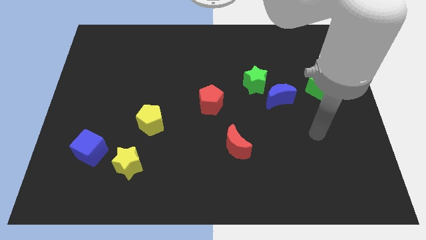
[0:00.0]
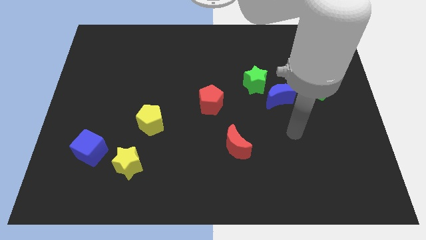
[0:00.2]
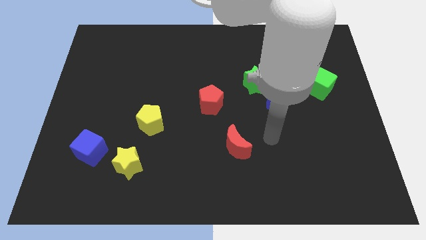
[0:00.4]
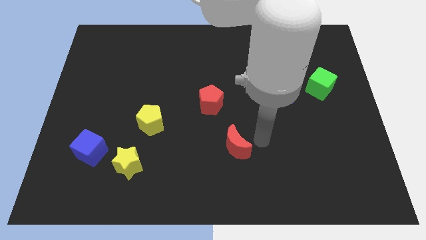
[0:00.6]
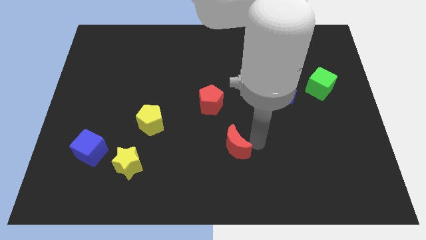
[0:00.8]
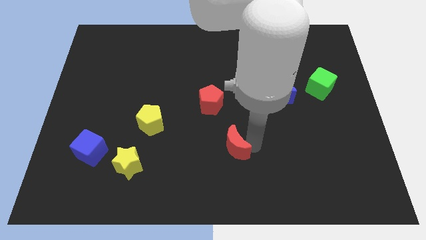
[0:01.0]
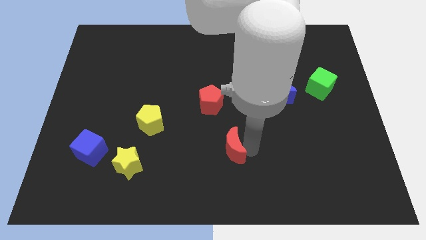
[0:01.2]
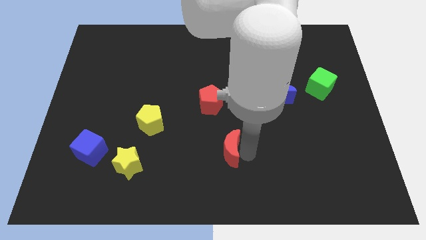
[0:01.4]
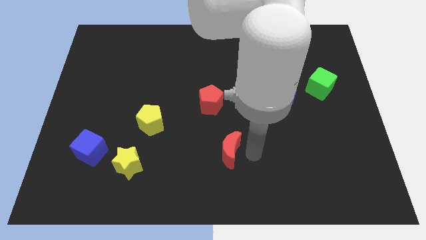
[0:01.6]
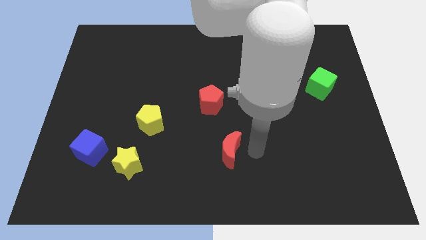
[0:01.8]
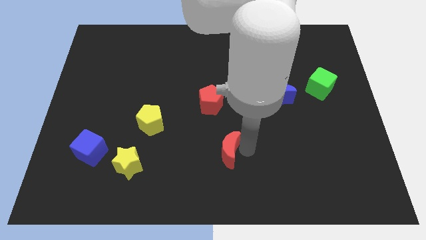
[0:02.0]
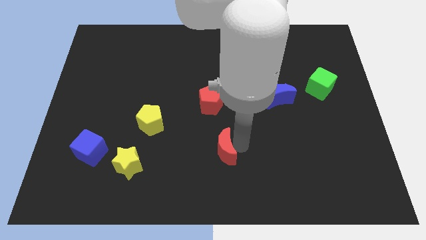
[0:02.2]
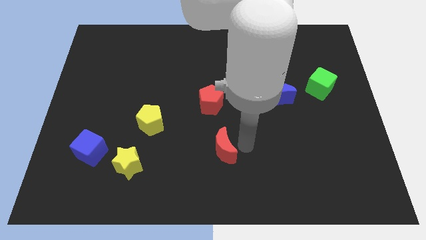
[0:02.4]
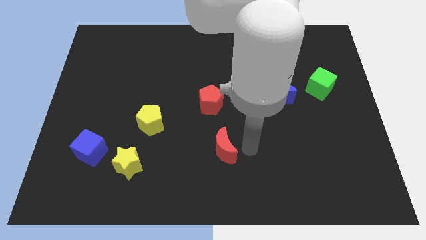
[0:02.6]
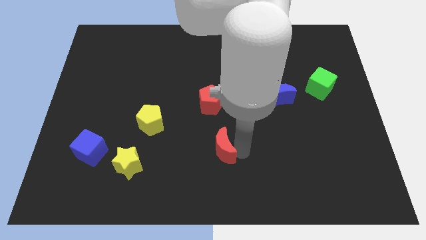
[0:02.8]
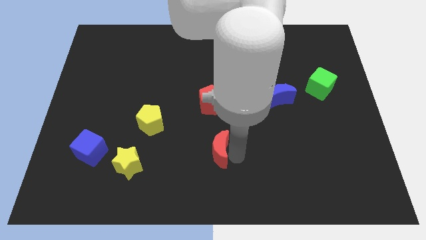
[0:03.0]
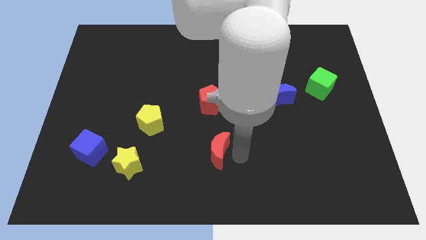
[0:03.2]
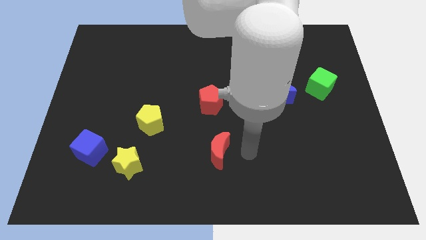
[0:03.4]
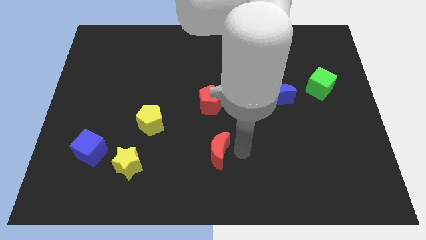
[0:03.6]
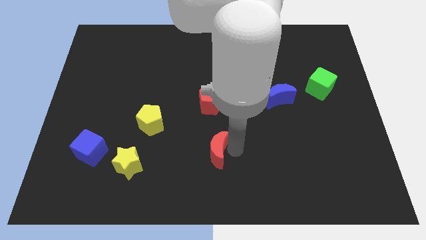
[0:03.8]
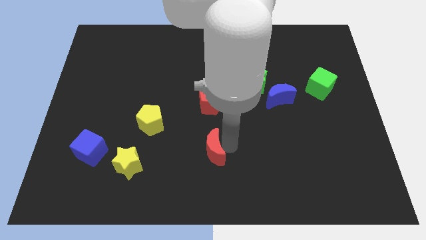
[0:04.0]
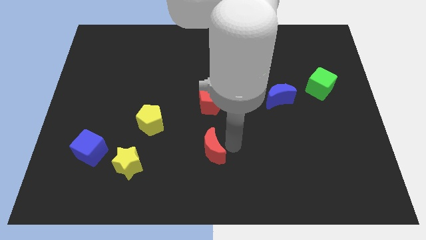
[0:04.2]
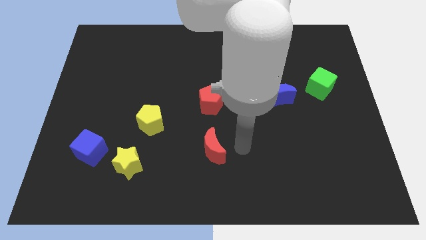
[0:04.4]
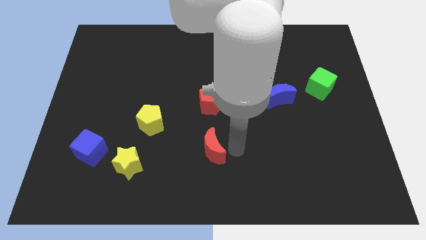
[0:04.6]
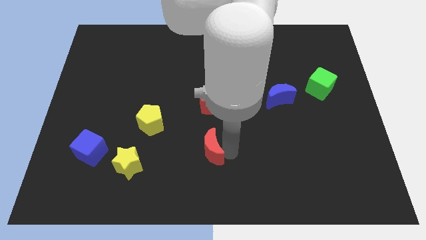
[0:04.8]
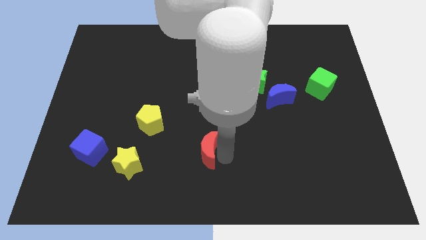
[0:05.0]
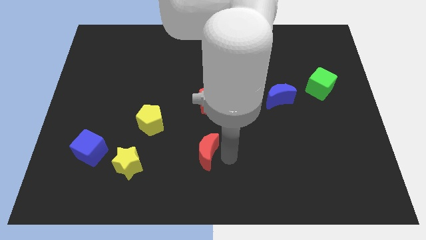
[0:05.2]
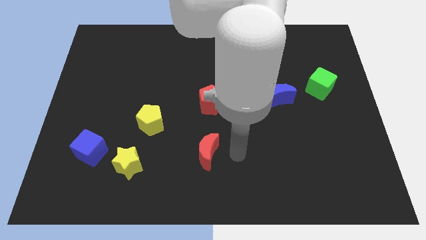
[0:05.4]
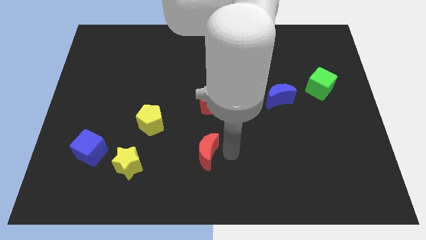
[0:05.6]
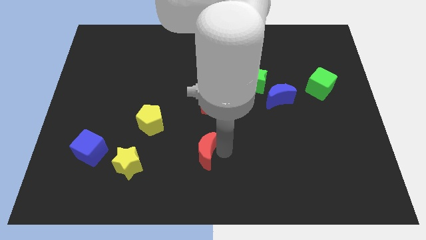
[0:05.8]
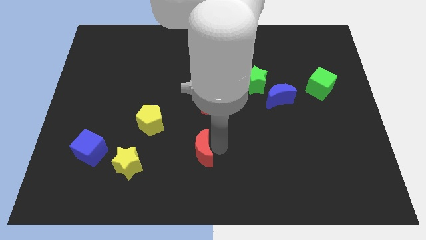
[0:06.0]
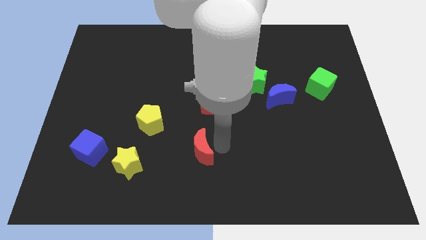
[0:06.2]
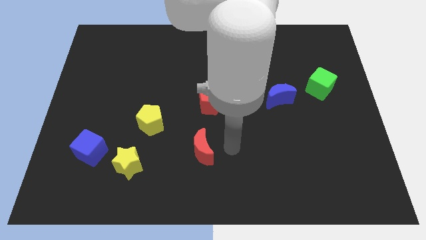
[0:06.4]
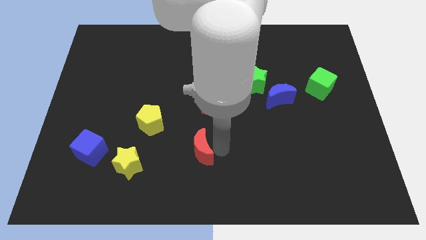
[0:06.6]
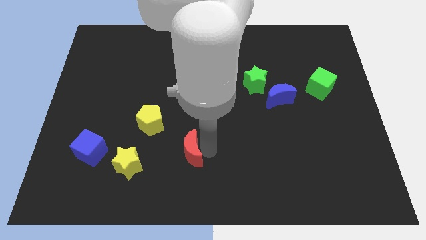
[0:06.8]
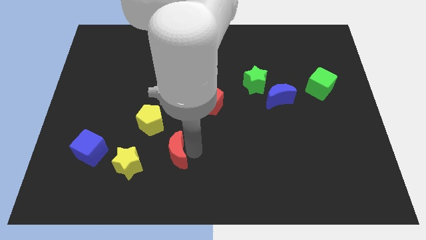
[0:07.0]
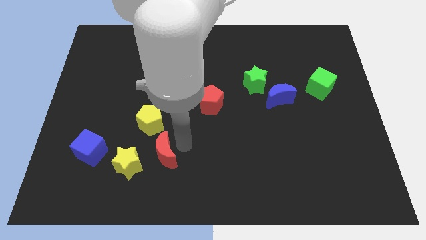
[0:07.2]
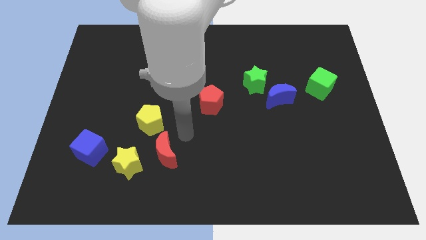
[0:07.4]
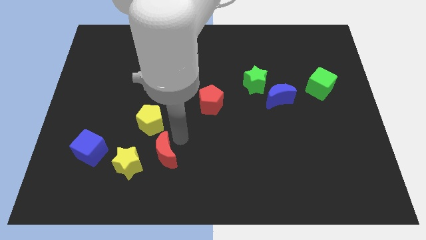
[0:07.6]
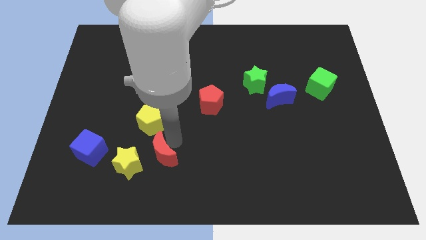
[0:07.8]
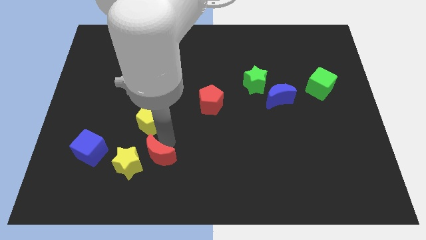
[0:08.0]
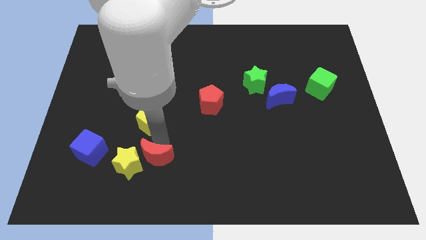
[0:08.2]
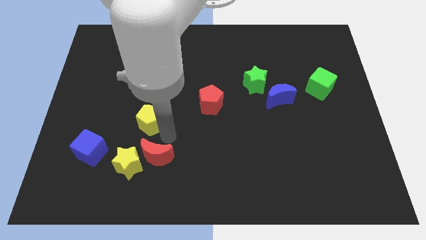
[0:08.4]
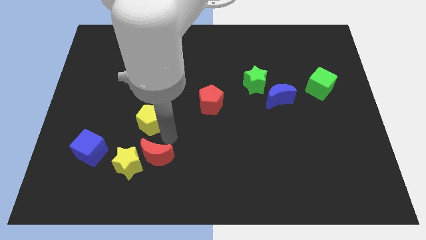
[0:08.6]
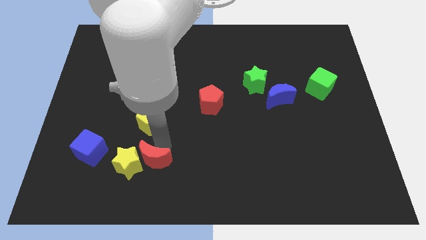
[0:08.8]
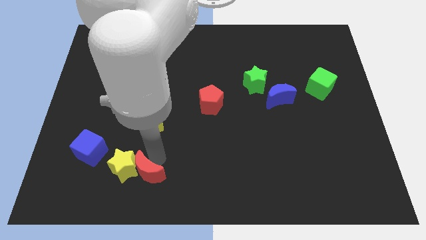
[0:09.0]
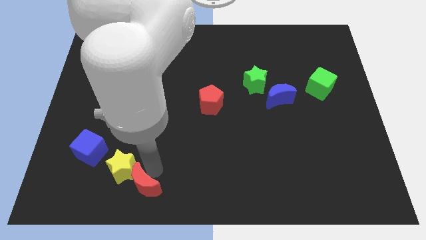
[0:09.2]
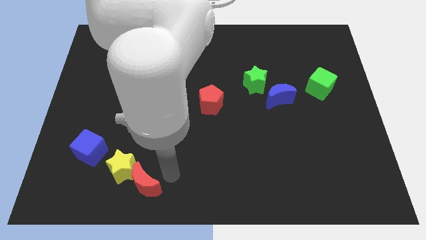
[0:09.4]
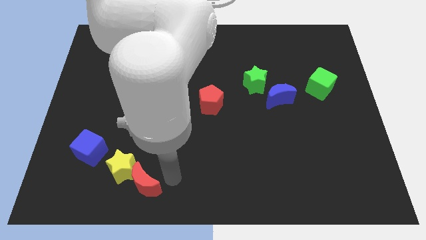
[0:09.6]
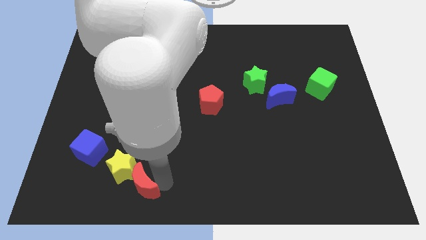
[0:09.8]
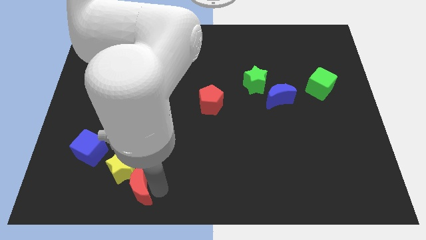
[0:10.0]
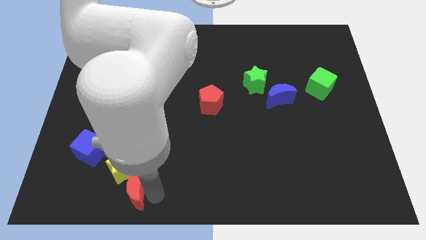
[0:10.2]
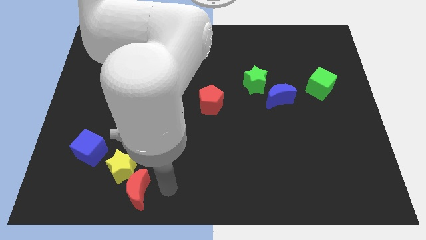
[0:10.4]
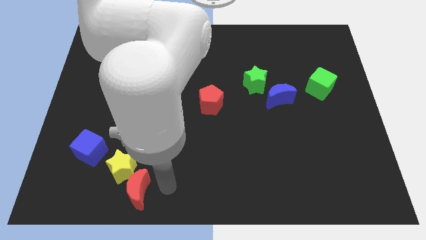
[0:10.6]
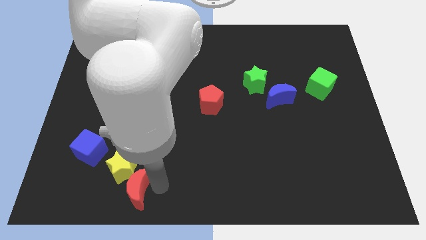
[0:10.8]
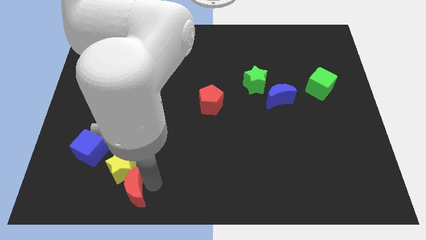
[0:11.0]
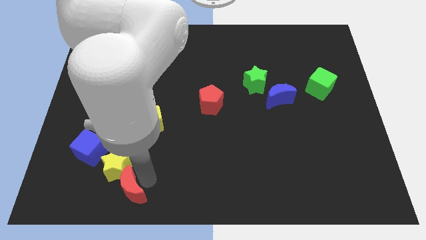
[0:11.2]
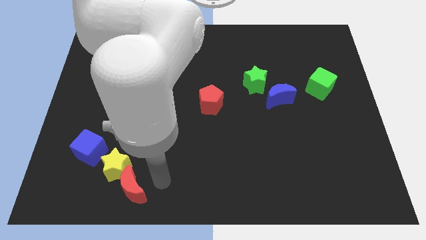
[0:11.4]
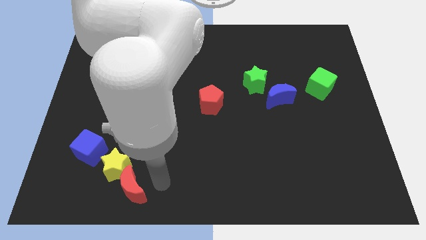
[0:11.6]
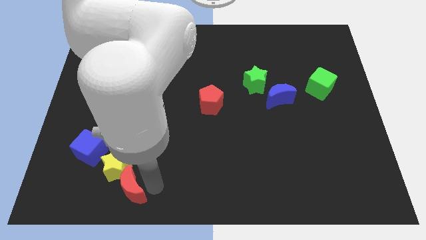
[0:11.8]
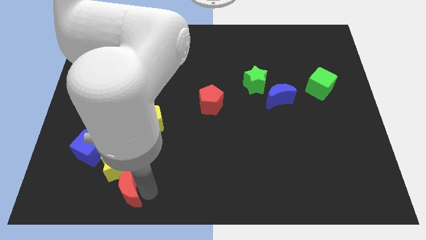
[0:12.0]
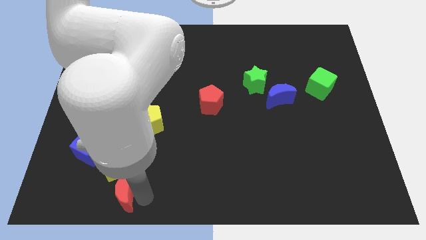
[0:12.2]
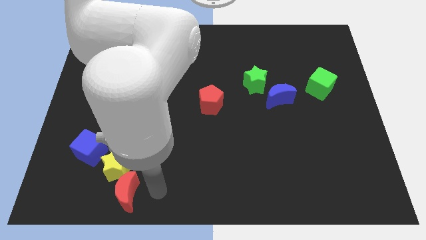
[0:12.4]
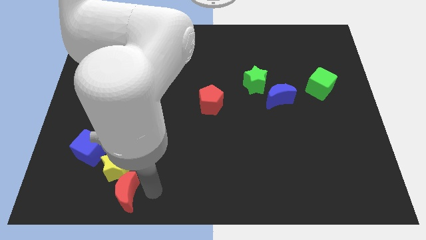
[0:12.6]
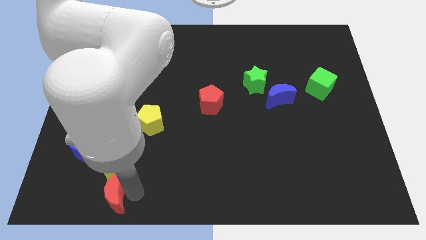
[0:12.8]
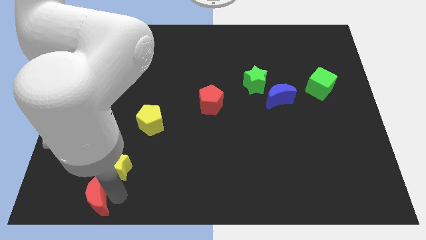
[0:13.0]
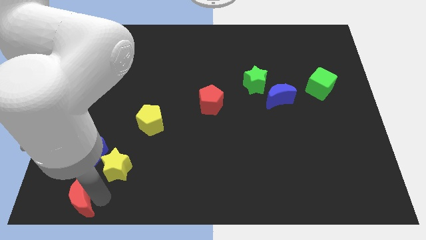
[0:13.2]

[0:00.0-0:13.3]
slide the red moon to the bottom left corner
